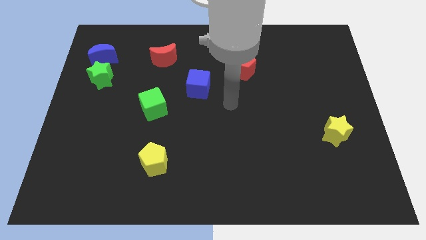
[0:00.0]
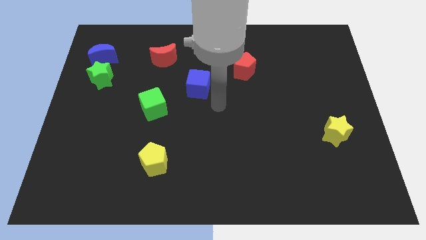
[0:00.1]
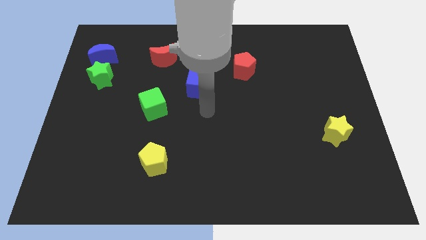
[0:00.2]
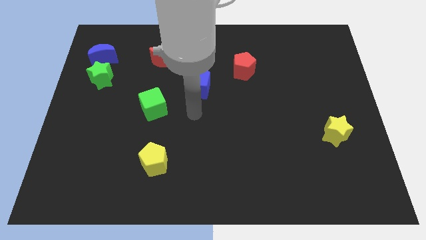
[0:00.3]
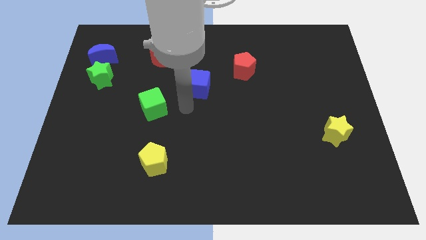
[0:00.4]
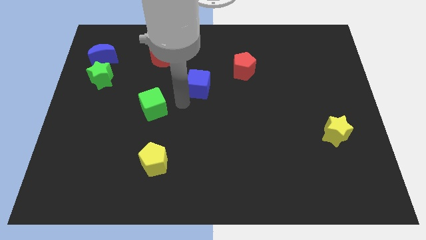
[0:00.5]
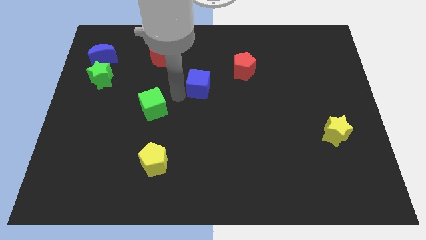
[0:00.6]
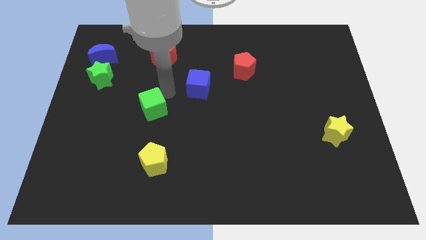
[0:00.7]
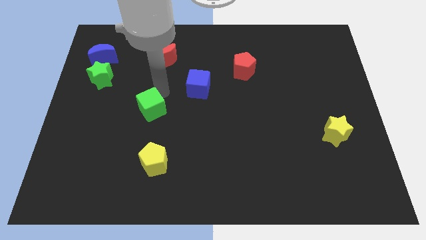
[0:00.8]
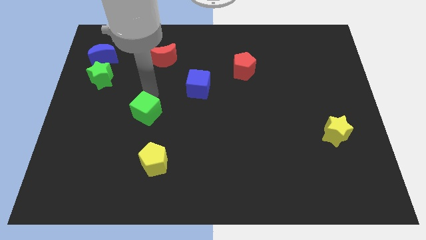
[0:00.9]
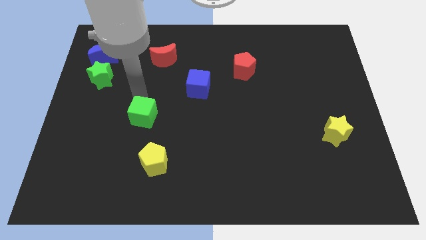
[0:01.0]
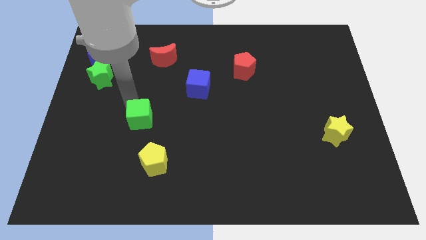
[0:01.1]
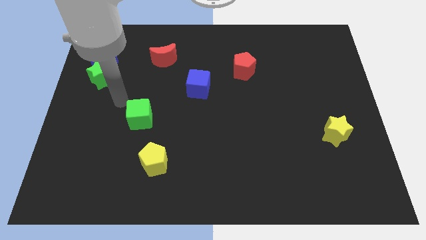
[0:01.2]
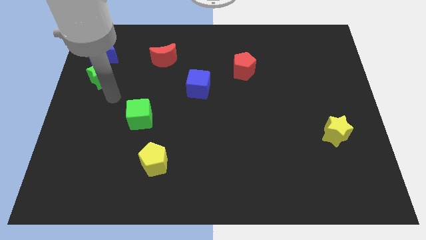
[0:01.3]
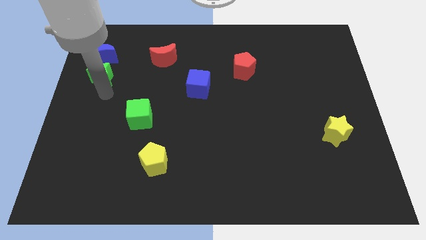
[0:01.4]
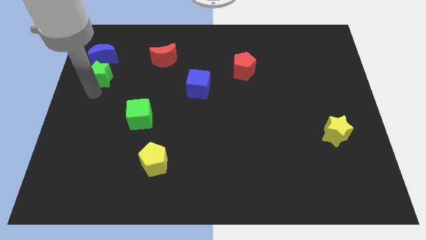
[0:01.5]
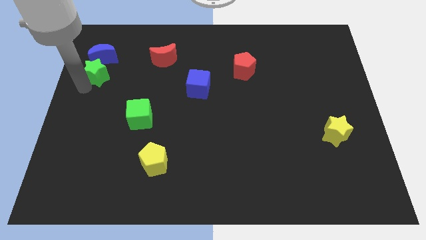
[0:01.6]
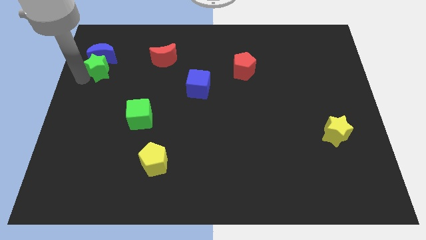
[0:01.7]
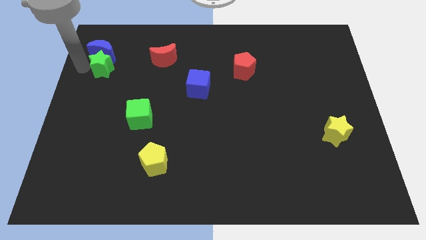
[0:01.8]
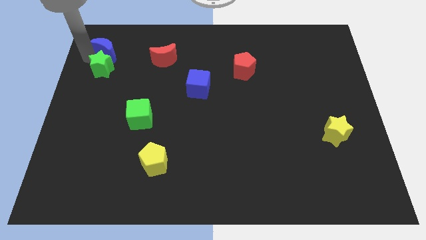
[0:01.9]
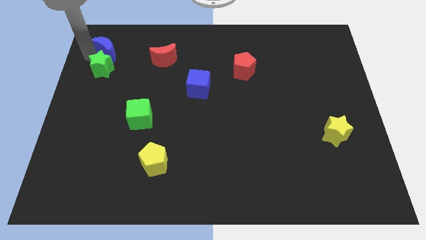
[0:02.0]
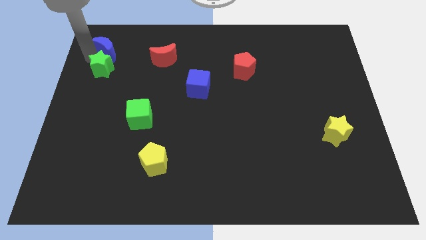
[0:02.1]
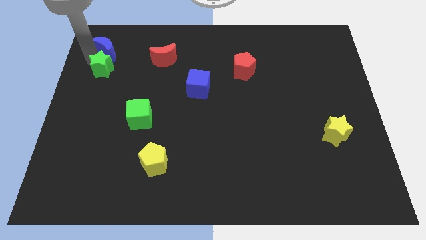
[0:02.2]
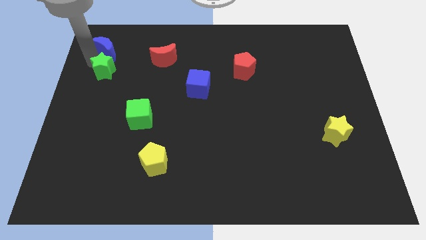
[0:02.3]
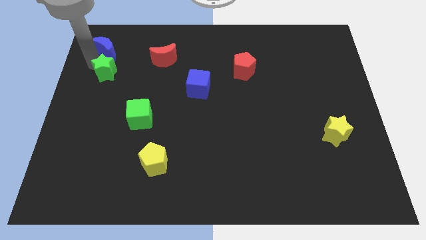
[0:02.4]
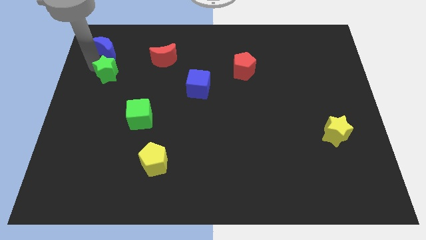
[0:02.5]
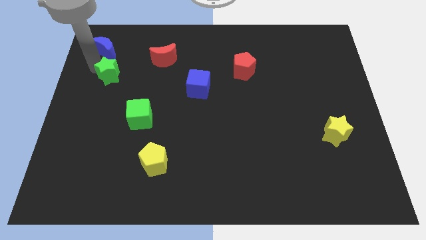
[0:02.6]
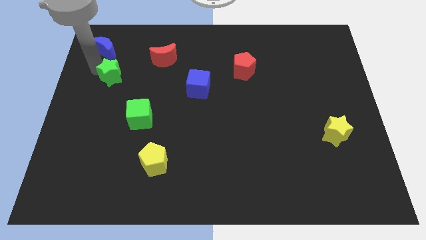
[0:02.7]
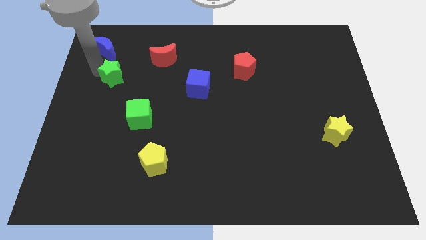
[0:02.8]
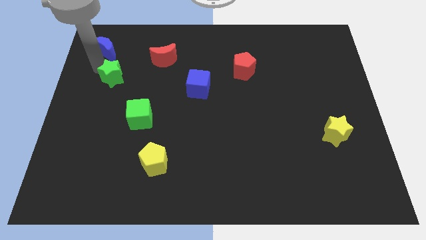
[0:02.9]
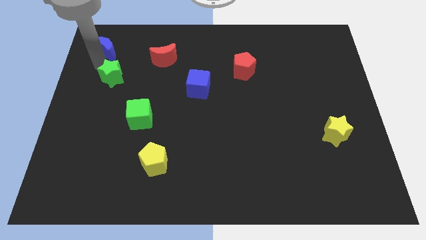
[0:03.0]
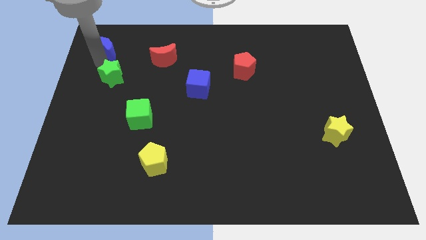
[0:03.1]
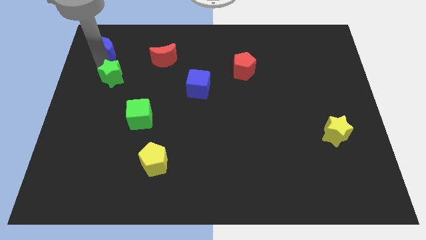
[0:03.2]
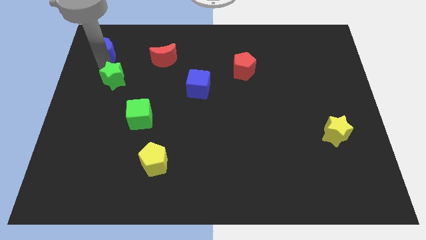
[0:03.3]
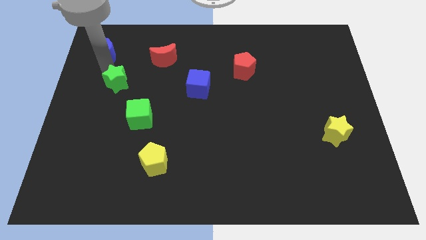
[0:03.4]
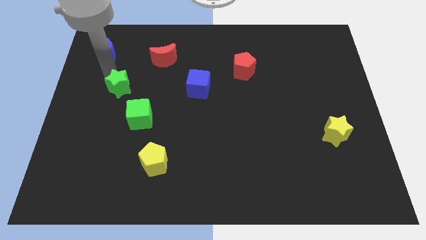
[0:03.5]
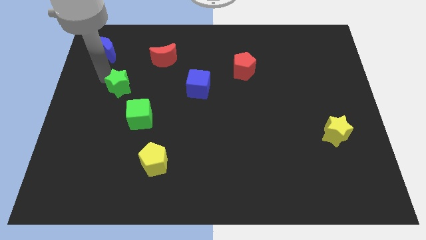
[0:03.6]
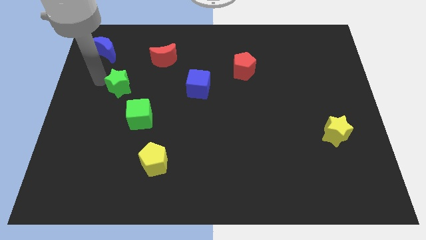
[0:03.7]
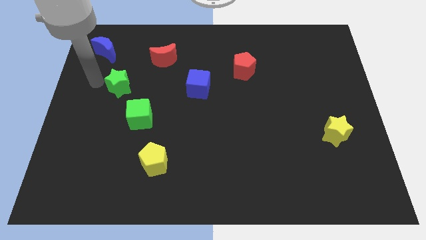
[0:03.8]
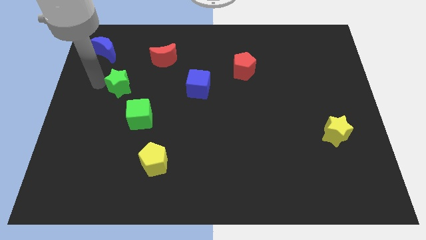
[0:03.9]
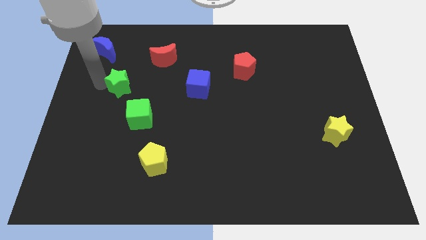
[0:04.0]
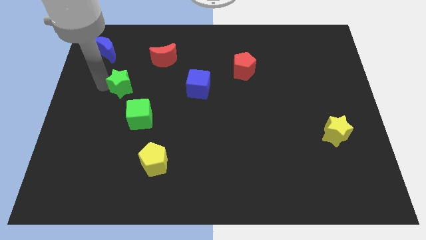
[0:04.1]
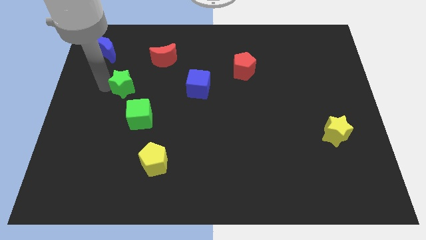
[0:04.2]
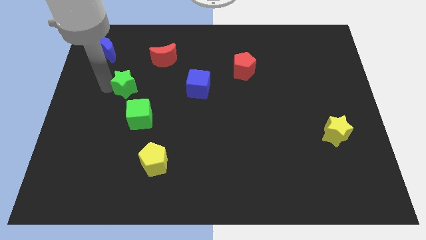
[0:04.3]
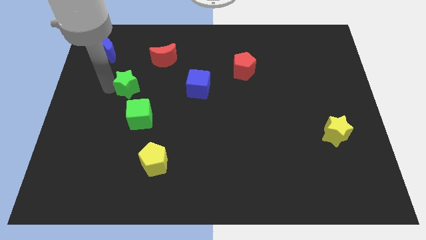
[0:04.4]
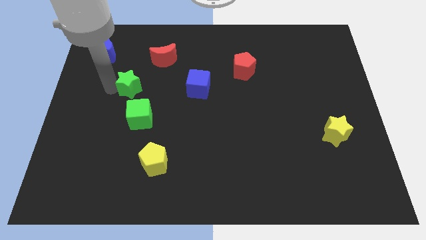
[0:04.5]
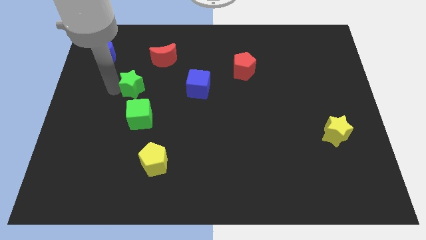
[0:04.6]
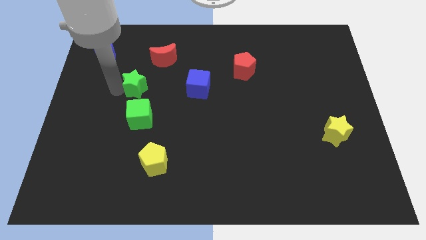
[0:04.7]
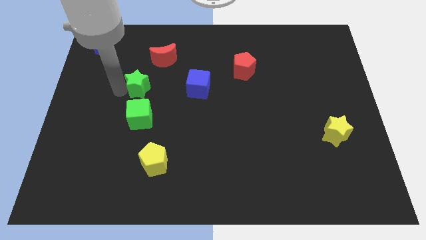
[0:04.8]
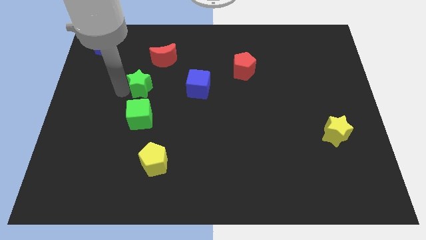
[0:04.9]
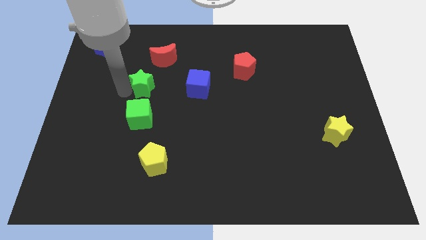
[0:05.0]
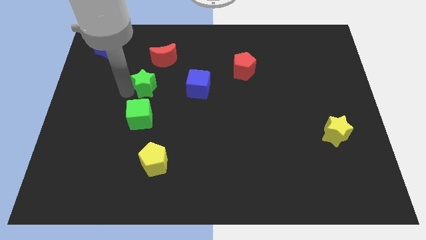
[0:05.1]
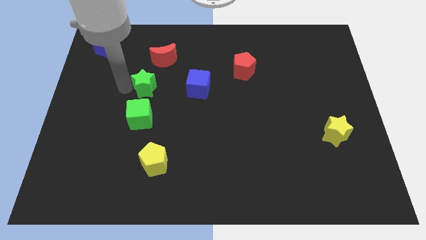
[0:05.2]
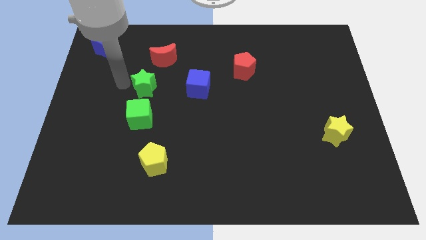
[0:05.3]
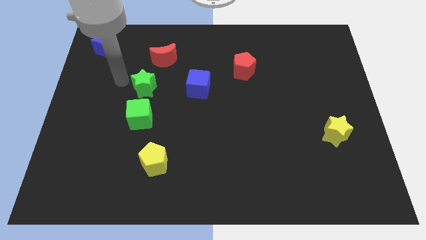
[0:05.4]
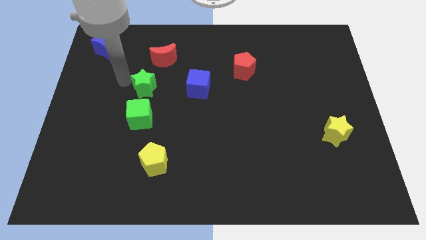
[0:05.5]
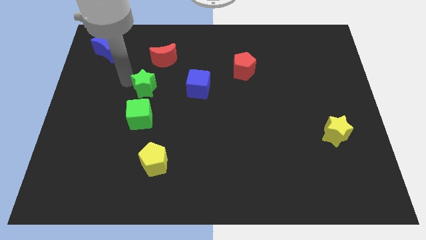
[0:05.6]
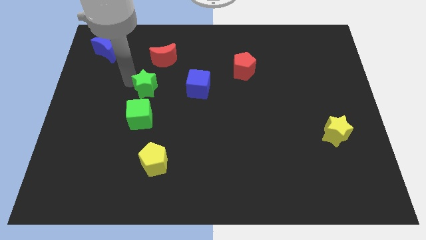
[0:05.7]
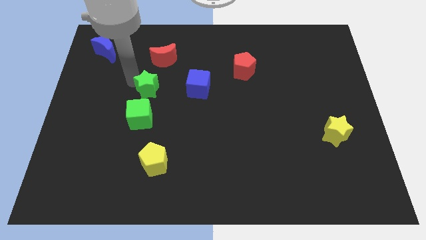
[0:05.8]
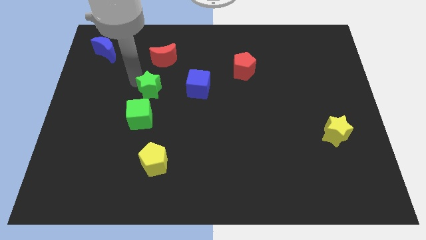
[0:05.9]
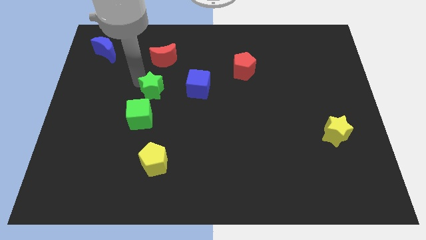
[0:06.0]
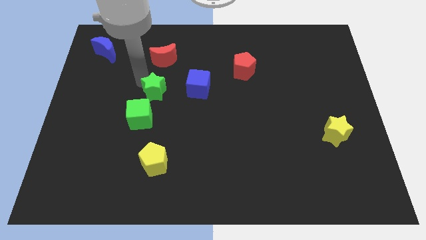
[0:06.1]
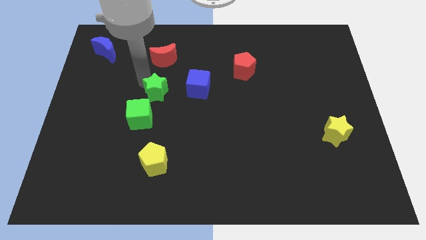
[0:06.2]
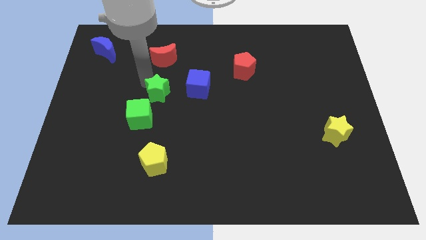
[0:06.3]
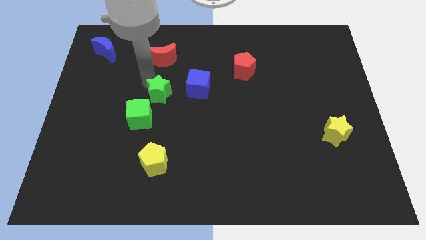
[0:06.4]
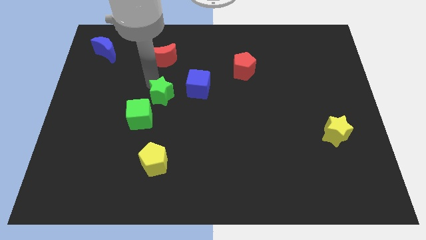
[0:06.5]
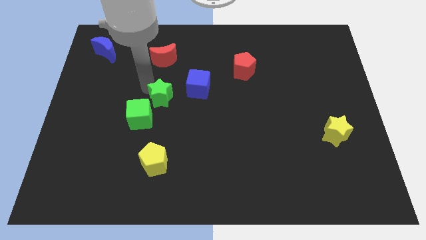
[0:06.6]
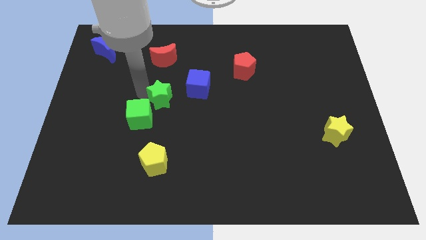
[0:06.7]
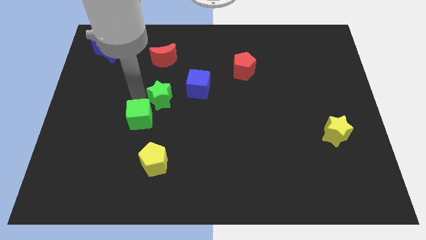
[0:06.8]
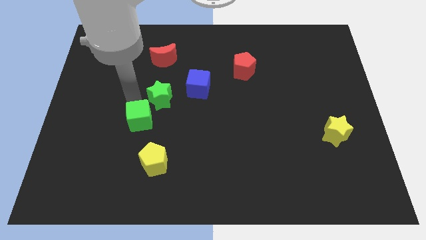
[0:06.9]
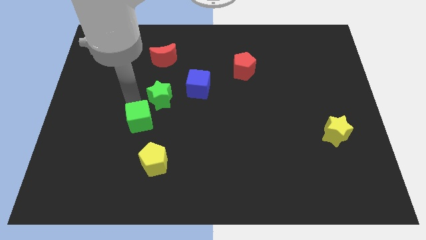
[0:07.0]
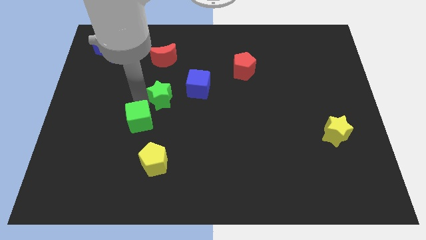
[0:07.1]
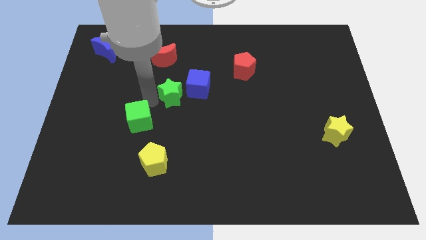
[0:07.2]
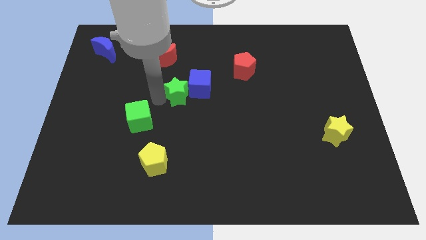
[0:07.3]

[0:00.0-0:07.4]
slide the green star close to the blue cube

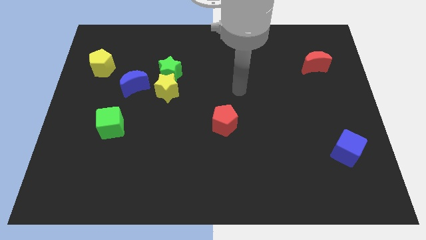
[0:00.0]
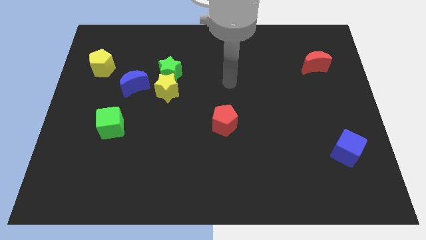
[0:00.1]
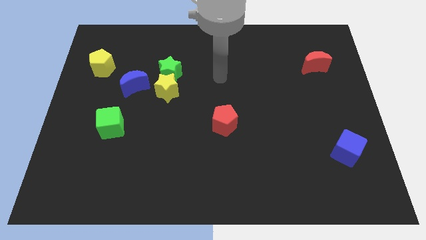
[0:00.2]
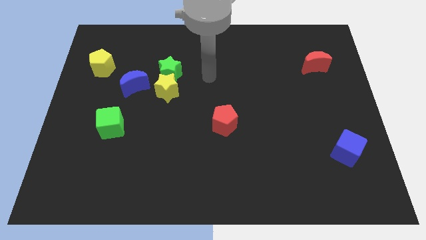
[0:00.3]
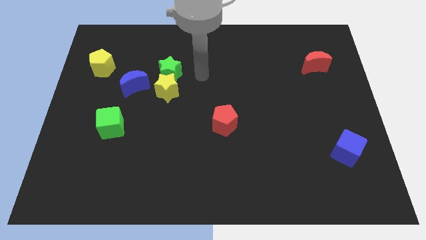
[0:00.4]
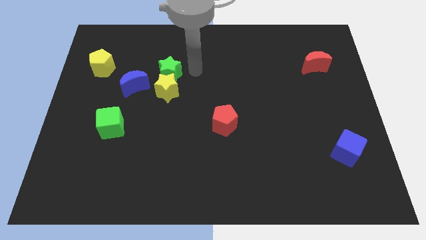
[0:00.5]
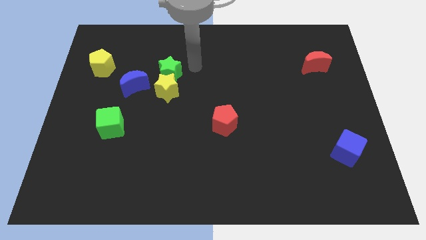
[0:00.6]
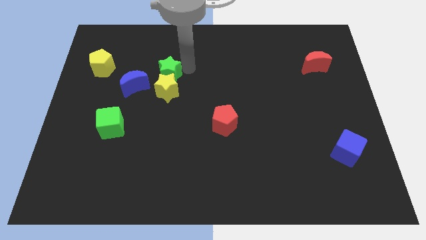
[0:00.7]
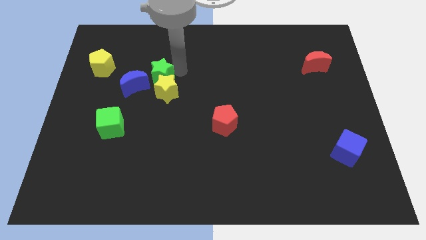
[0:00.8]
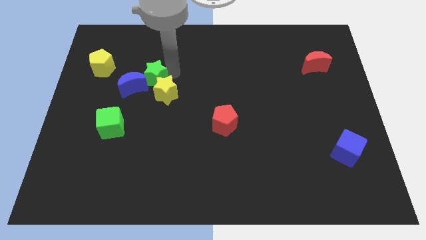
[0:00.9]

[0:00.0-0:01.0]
push the green star next to the blue moon
